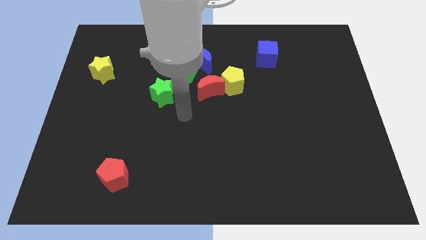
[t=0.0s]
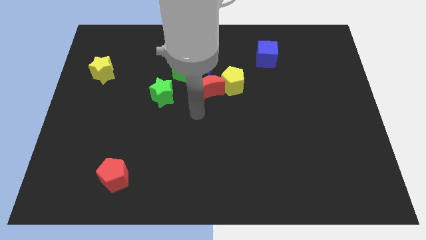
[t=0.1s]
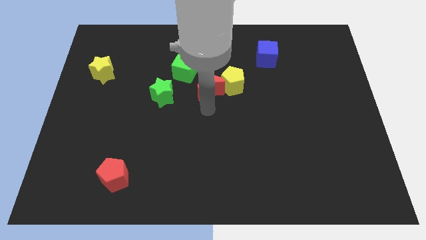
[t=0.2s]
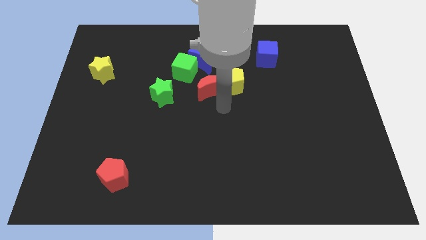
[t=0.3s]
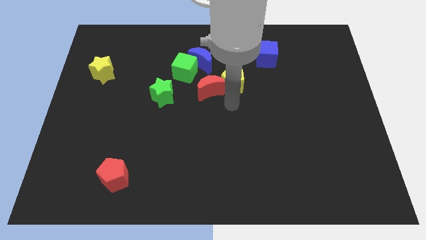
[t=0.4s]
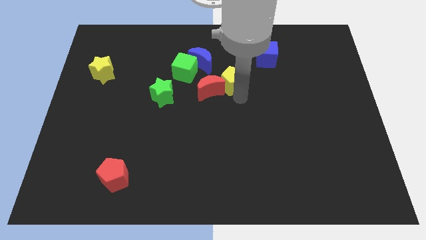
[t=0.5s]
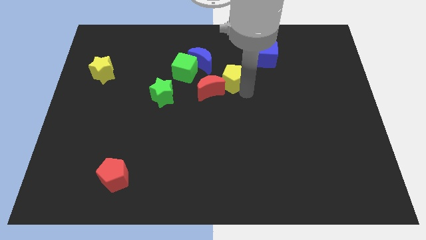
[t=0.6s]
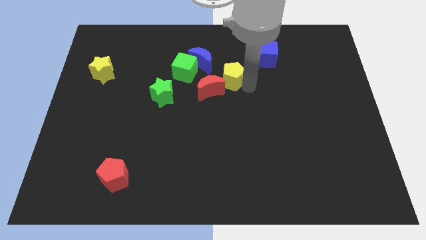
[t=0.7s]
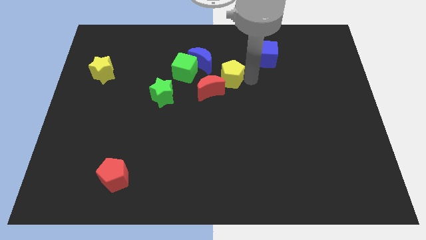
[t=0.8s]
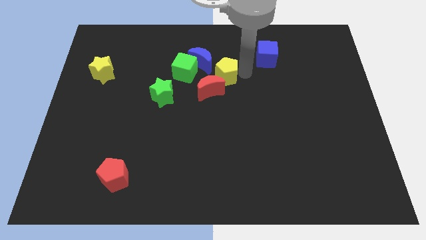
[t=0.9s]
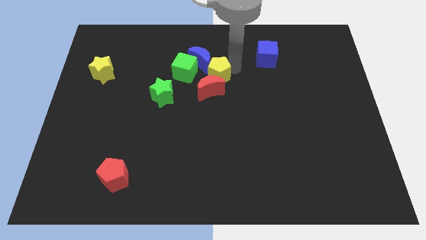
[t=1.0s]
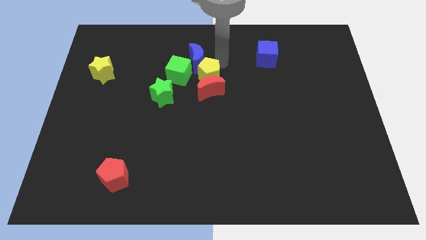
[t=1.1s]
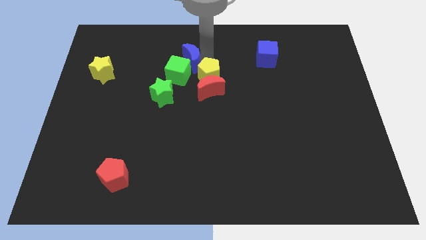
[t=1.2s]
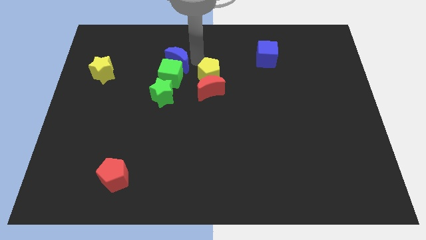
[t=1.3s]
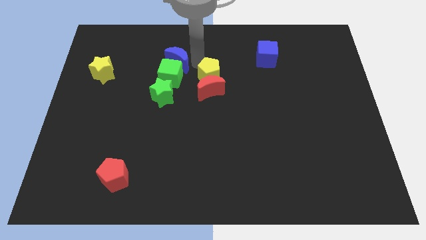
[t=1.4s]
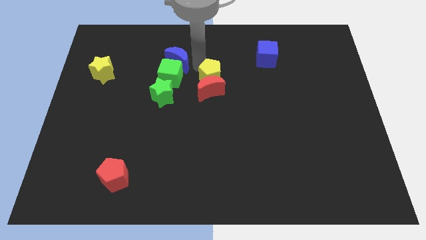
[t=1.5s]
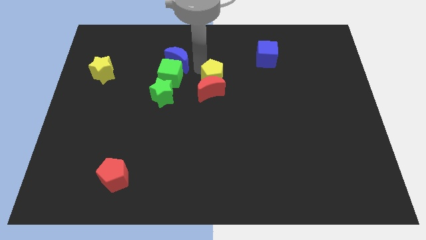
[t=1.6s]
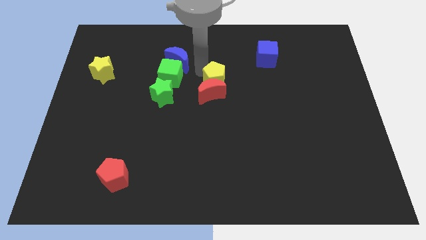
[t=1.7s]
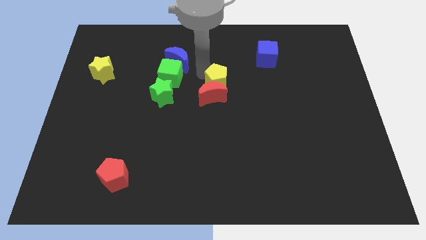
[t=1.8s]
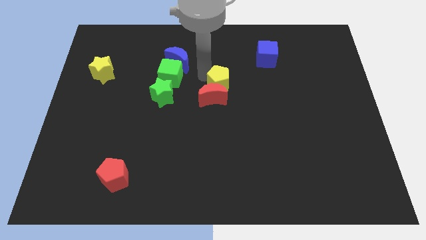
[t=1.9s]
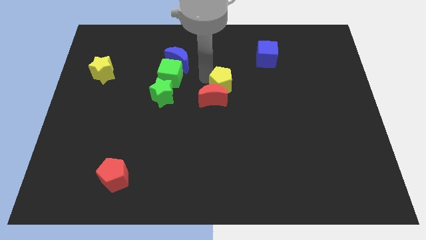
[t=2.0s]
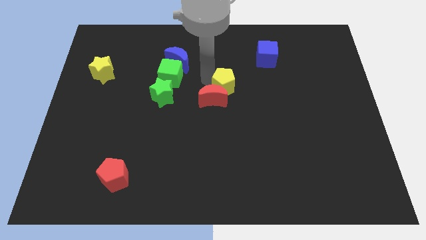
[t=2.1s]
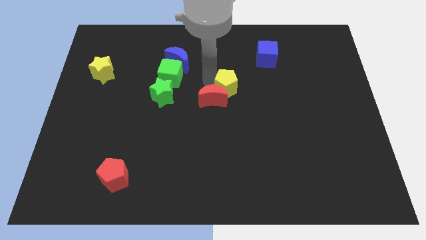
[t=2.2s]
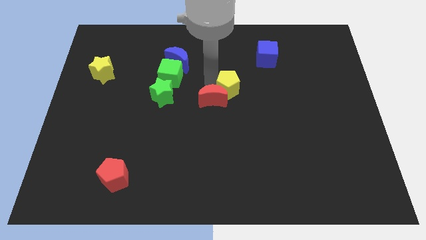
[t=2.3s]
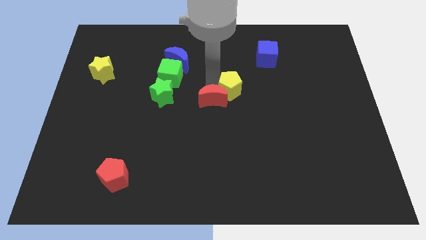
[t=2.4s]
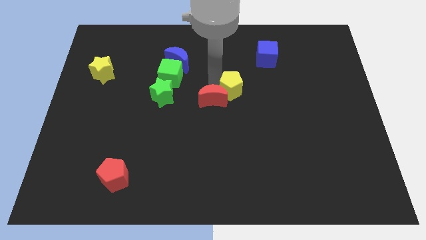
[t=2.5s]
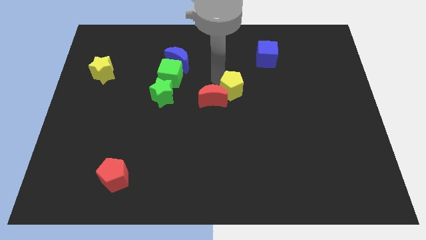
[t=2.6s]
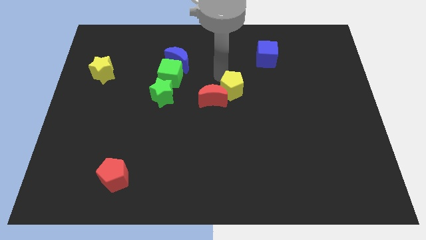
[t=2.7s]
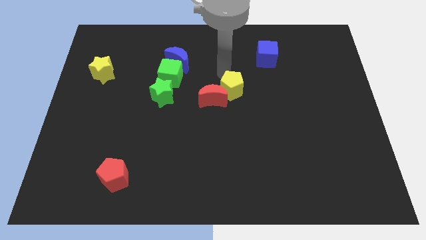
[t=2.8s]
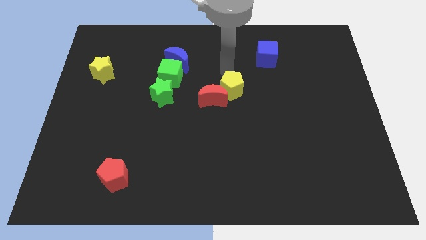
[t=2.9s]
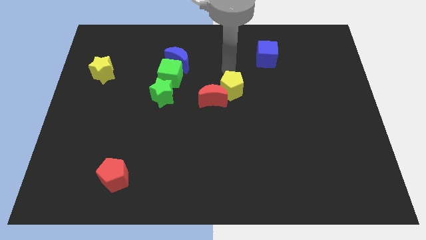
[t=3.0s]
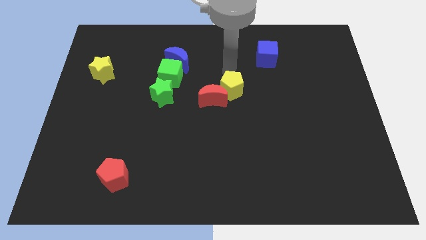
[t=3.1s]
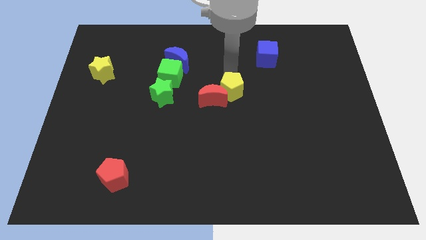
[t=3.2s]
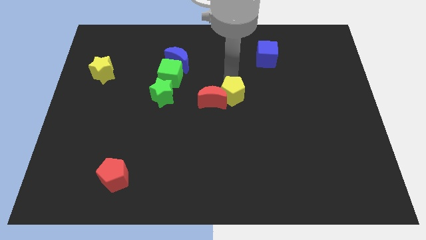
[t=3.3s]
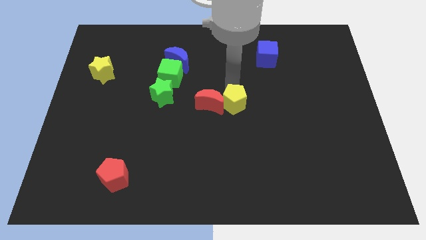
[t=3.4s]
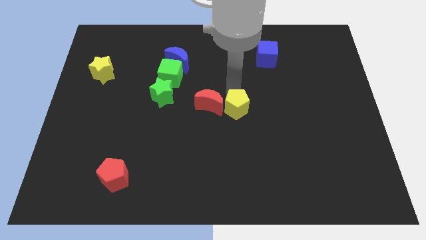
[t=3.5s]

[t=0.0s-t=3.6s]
slightly slide the yellow pentagon downwards

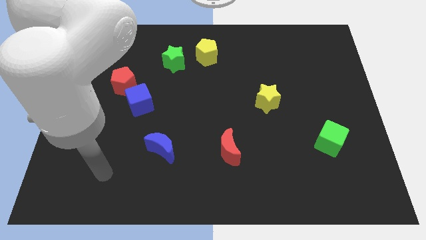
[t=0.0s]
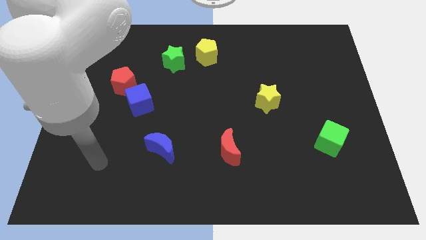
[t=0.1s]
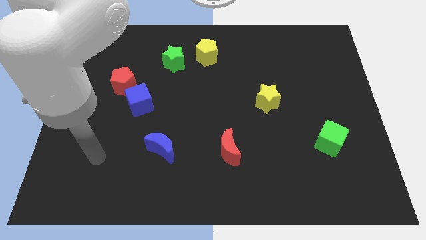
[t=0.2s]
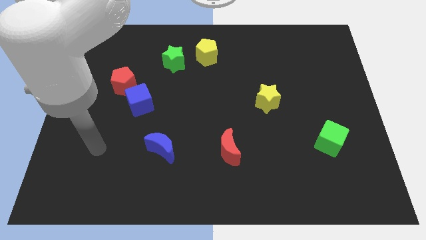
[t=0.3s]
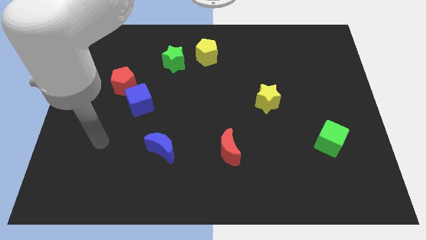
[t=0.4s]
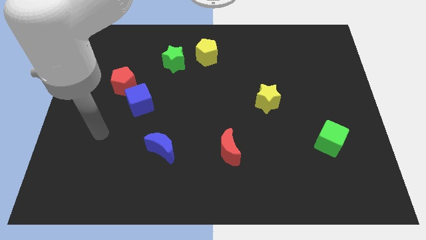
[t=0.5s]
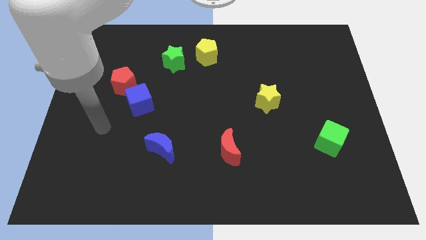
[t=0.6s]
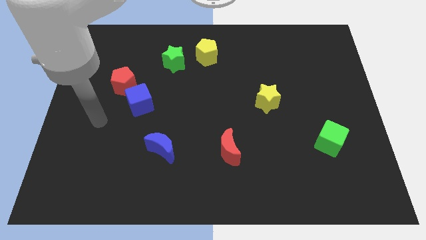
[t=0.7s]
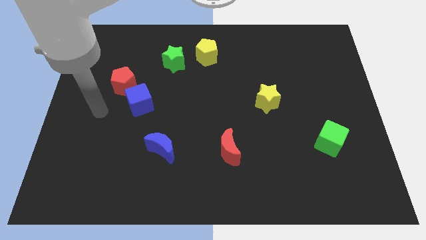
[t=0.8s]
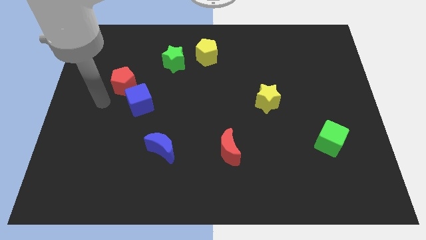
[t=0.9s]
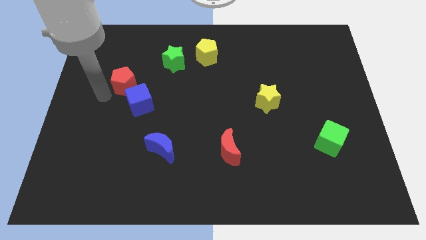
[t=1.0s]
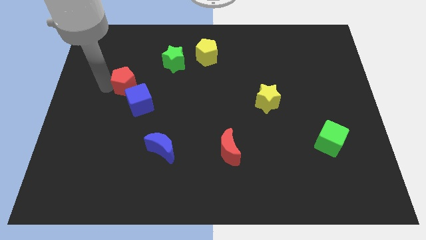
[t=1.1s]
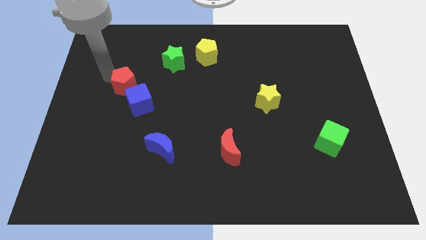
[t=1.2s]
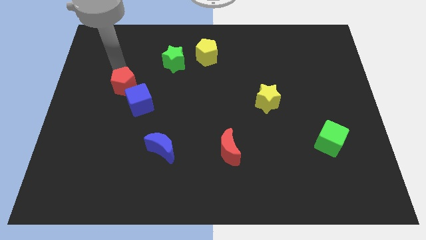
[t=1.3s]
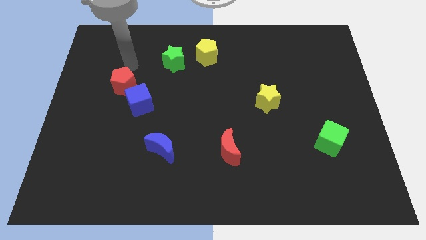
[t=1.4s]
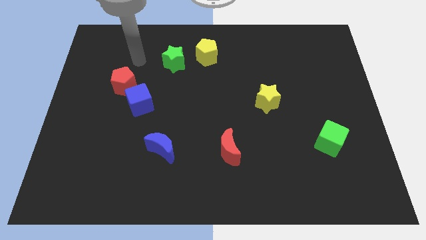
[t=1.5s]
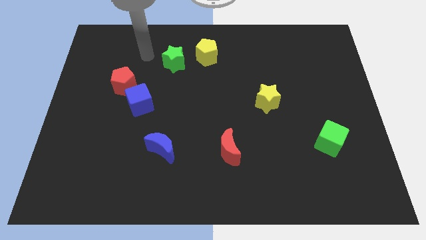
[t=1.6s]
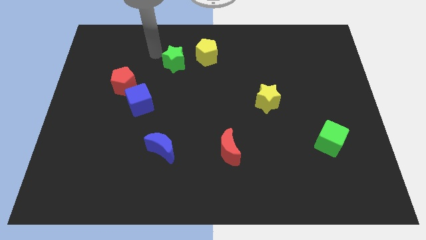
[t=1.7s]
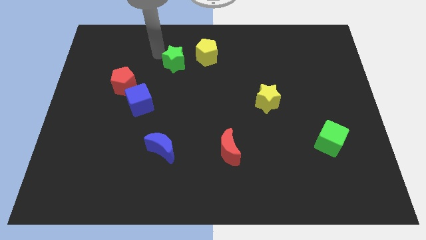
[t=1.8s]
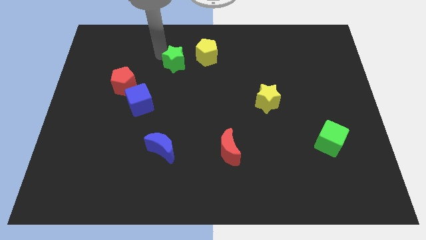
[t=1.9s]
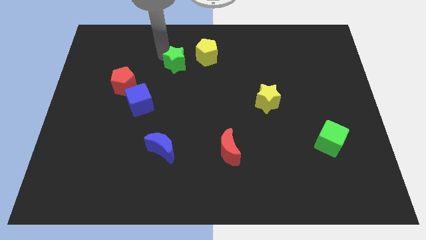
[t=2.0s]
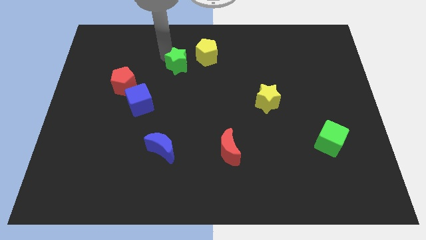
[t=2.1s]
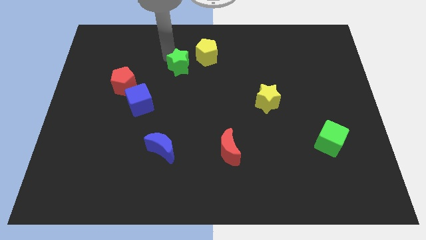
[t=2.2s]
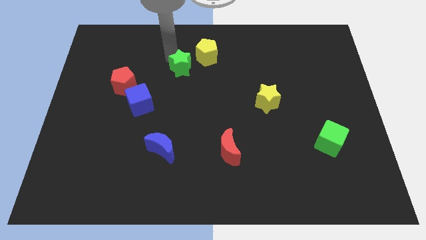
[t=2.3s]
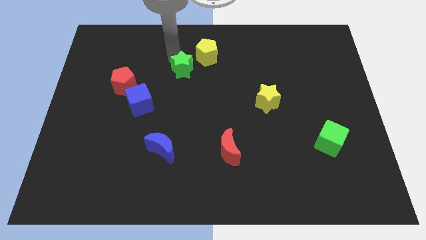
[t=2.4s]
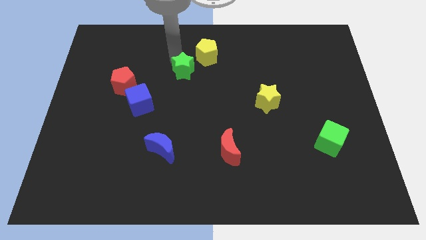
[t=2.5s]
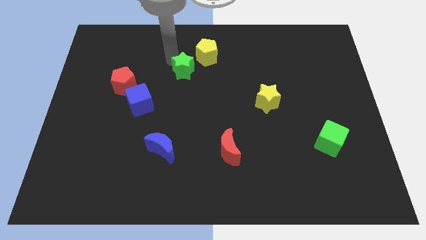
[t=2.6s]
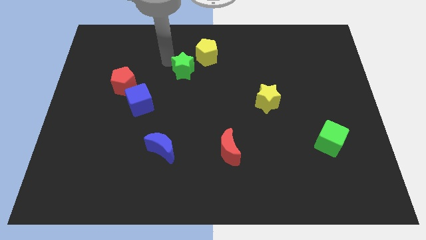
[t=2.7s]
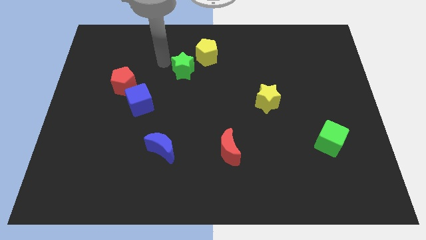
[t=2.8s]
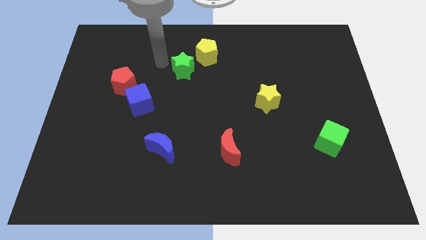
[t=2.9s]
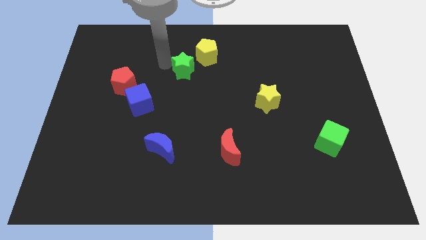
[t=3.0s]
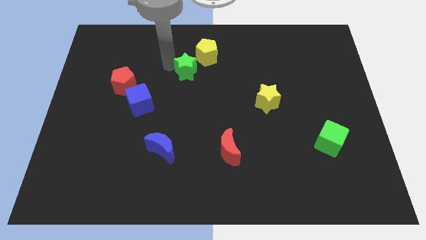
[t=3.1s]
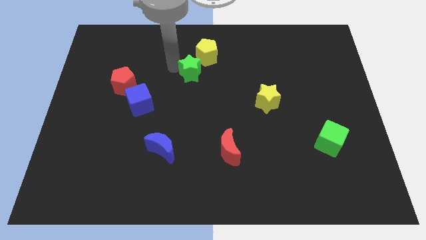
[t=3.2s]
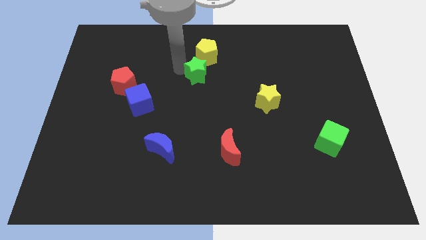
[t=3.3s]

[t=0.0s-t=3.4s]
push the green star somewhat downwards and right

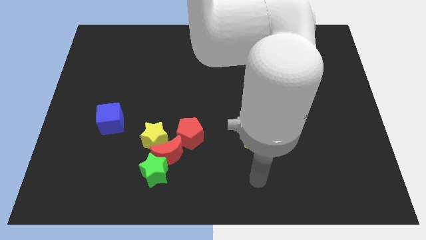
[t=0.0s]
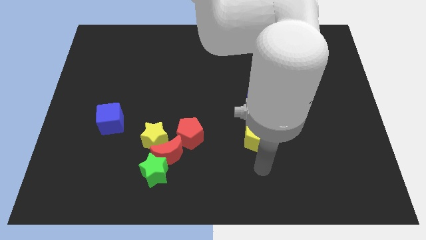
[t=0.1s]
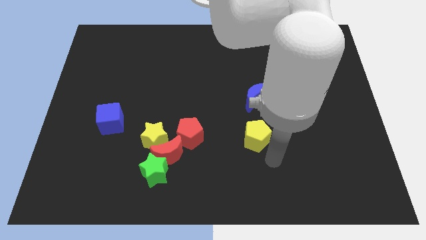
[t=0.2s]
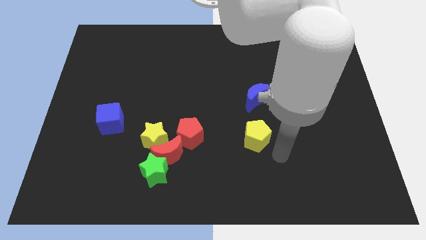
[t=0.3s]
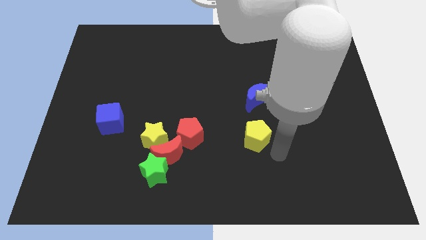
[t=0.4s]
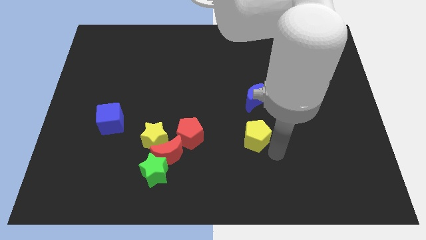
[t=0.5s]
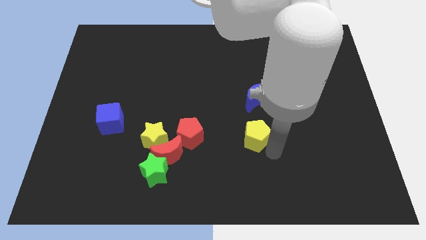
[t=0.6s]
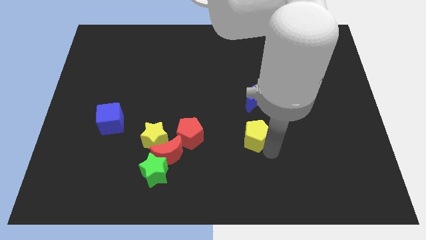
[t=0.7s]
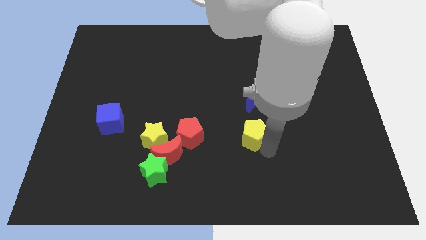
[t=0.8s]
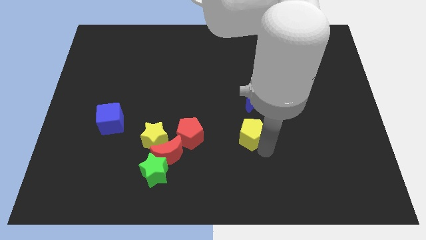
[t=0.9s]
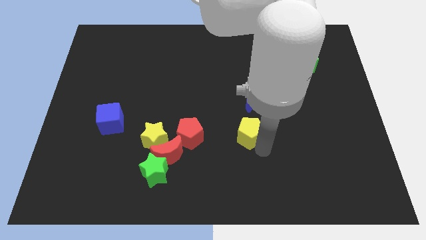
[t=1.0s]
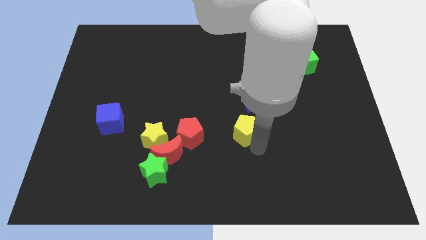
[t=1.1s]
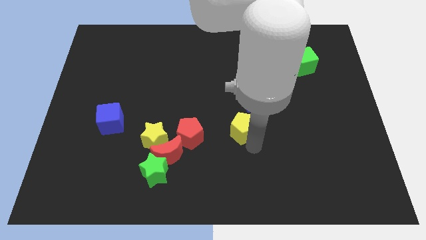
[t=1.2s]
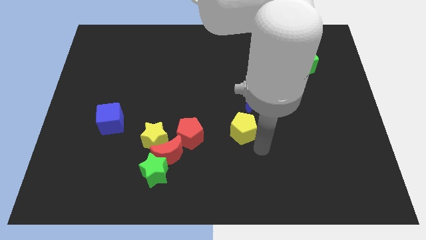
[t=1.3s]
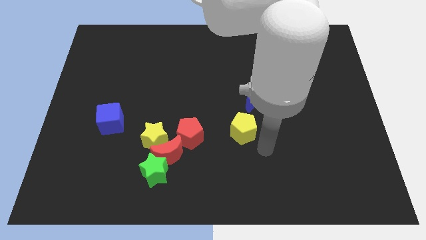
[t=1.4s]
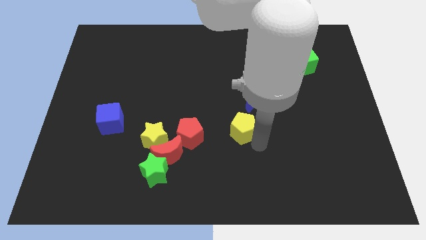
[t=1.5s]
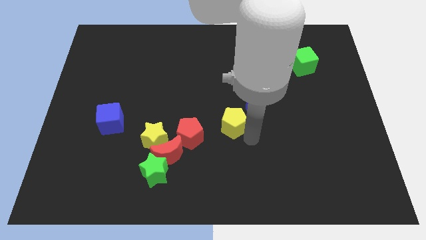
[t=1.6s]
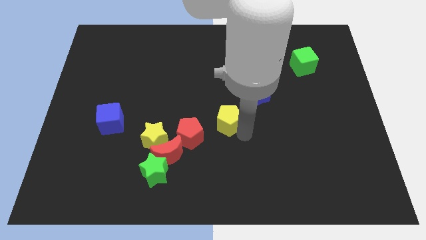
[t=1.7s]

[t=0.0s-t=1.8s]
move the yellow pentagon diagonally up and left somewhat
